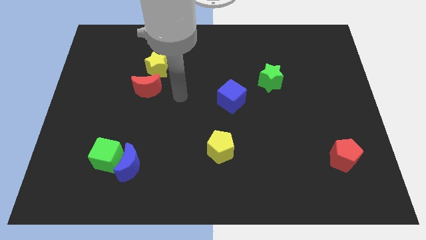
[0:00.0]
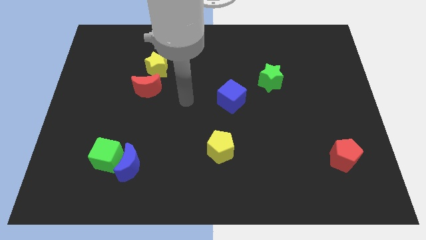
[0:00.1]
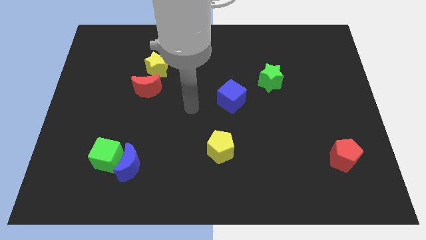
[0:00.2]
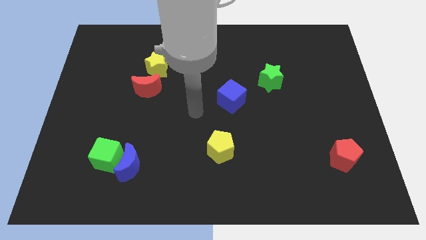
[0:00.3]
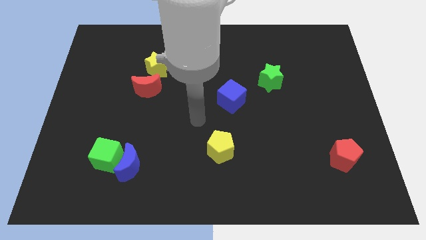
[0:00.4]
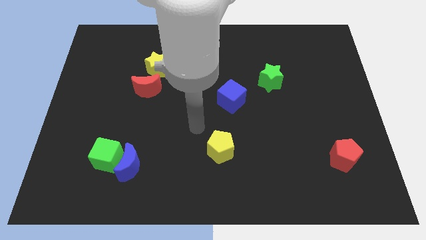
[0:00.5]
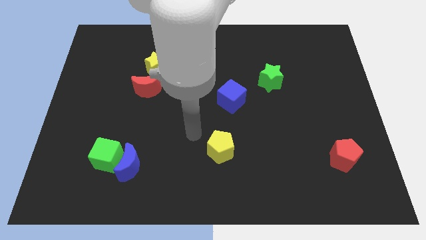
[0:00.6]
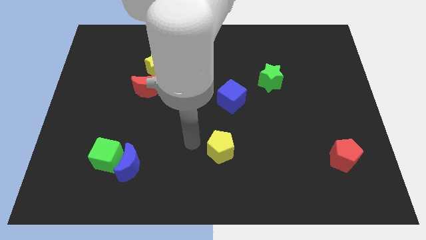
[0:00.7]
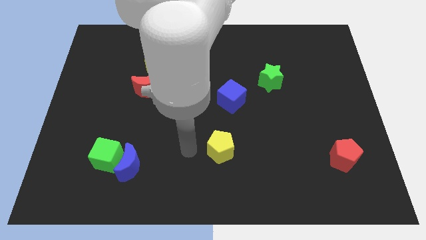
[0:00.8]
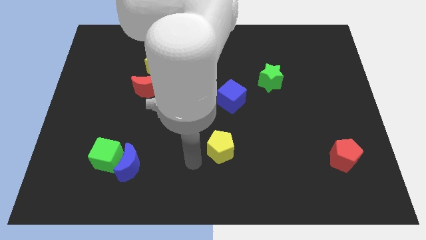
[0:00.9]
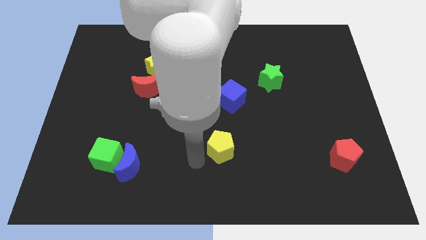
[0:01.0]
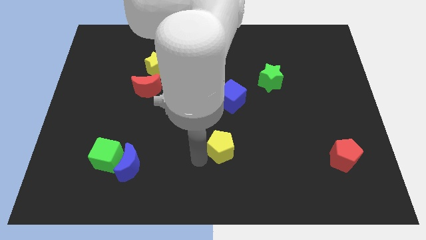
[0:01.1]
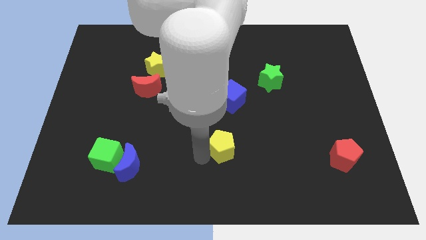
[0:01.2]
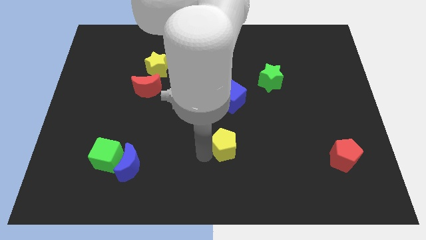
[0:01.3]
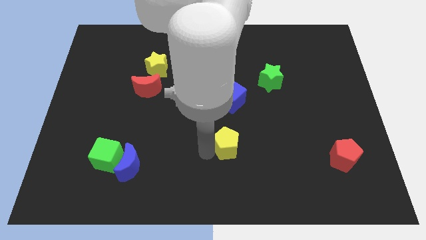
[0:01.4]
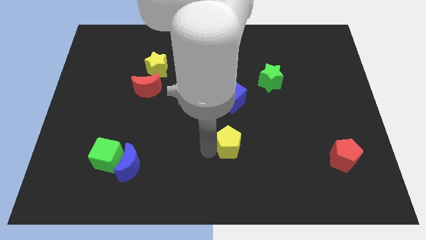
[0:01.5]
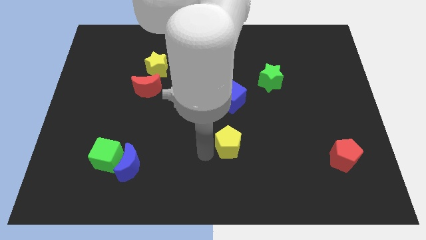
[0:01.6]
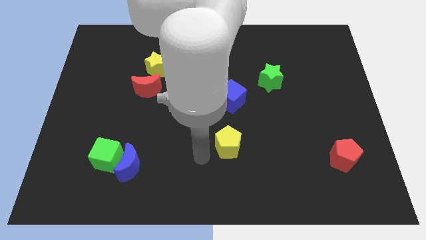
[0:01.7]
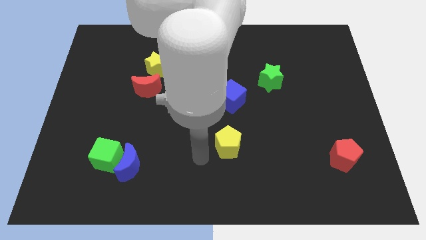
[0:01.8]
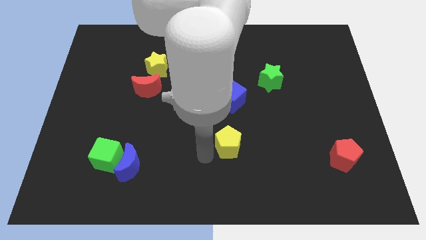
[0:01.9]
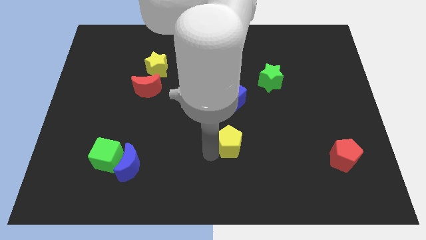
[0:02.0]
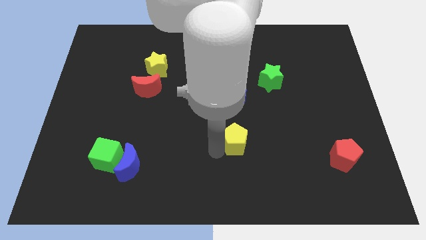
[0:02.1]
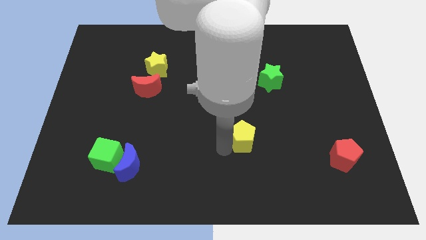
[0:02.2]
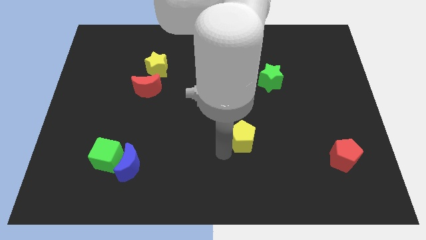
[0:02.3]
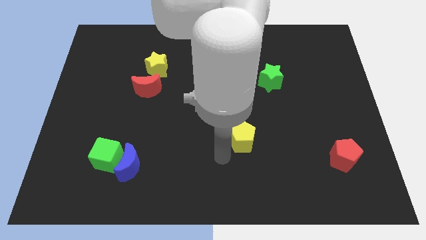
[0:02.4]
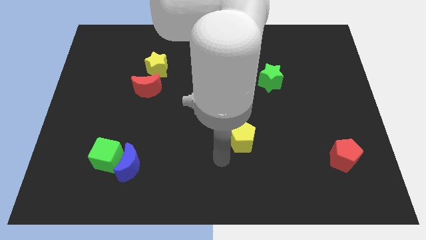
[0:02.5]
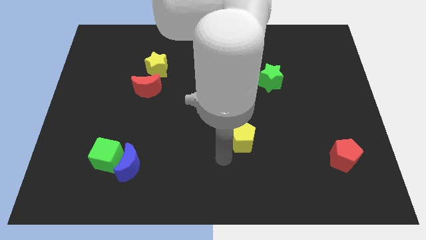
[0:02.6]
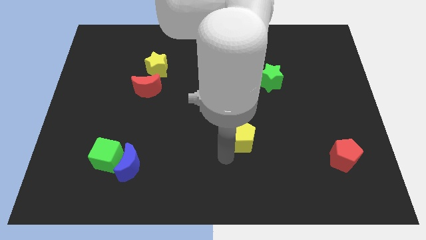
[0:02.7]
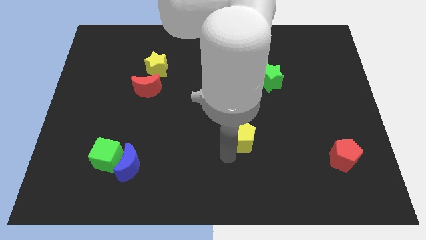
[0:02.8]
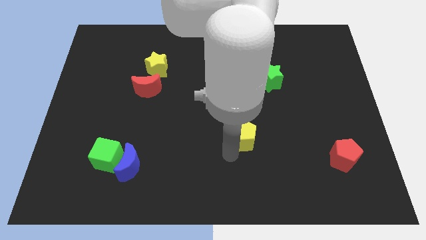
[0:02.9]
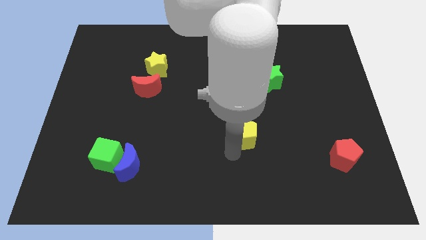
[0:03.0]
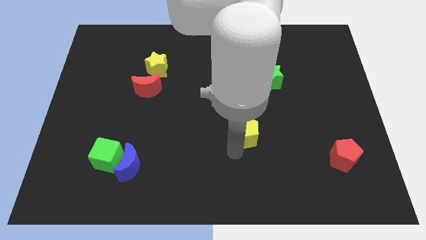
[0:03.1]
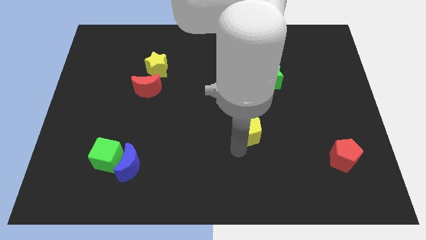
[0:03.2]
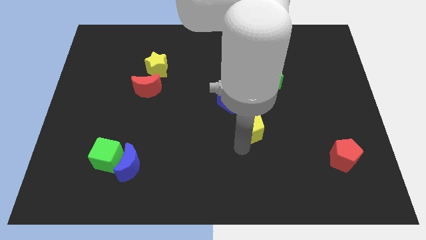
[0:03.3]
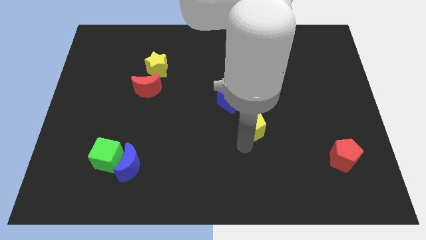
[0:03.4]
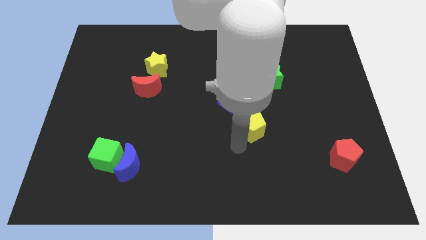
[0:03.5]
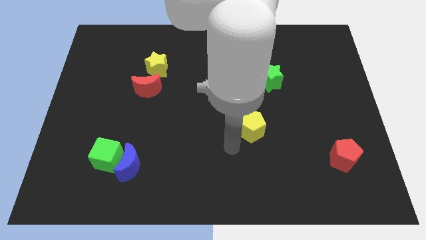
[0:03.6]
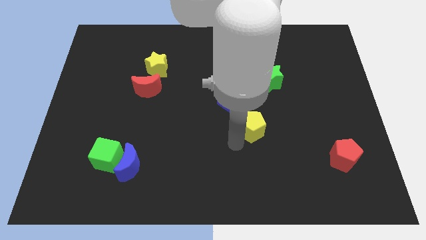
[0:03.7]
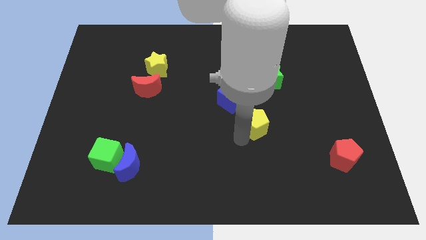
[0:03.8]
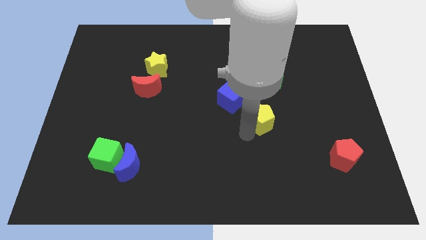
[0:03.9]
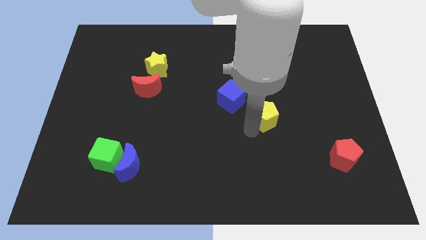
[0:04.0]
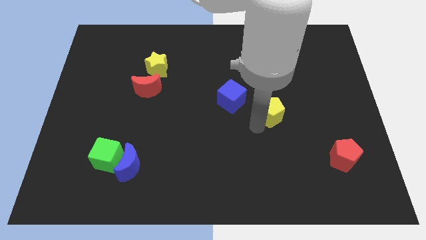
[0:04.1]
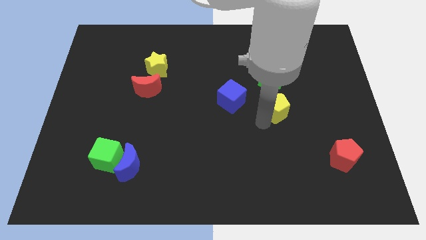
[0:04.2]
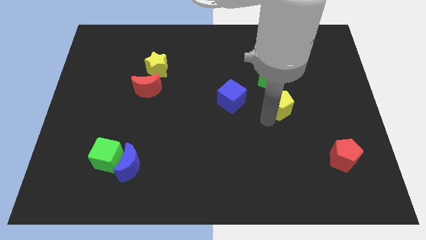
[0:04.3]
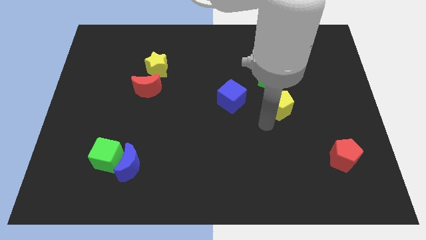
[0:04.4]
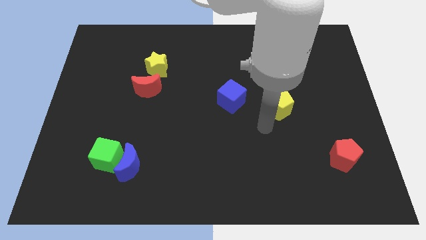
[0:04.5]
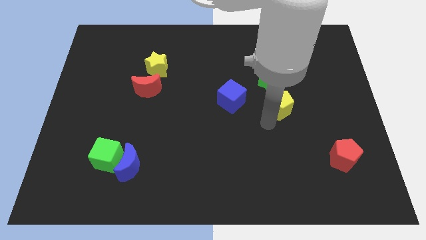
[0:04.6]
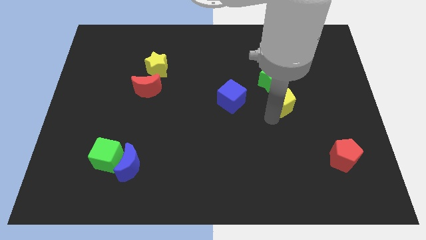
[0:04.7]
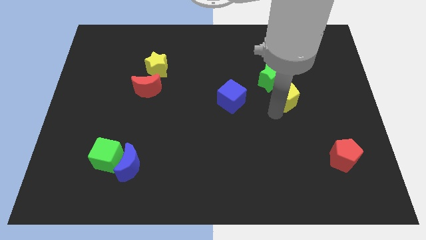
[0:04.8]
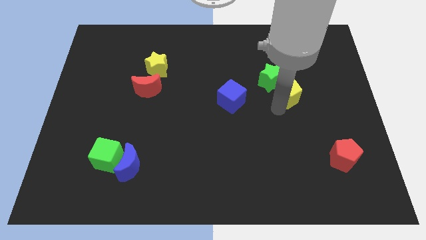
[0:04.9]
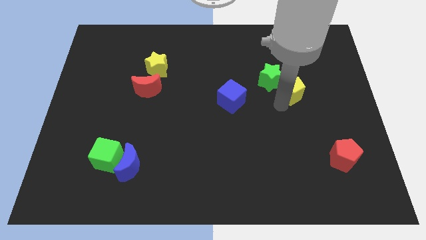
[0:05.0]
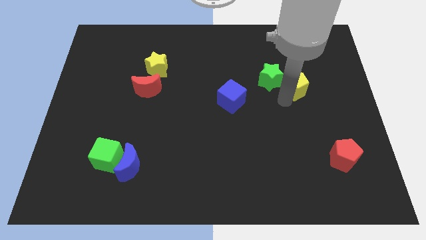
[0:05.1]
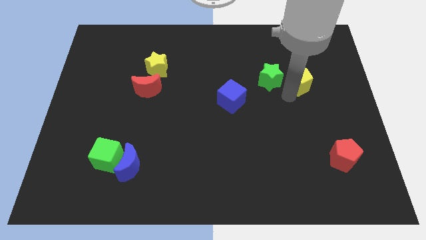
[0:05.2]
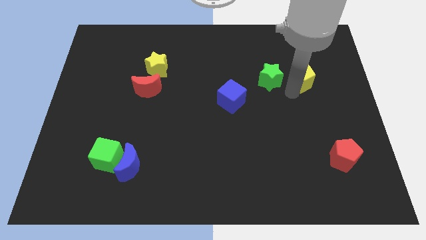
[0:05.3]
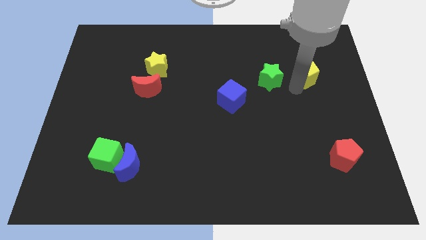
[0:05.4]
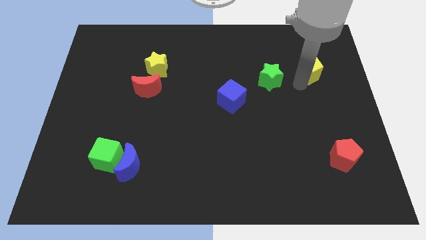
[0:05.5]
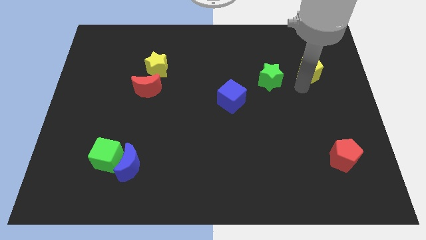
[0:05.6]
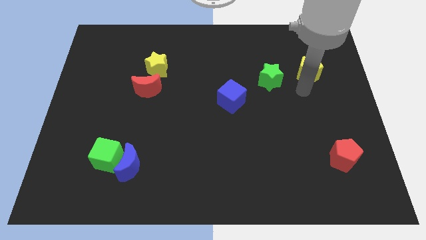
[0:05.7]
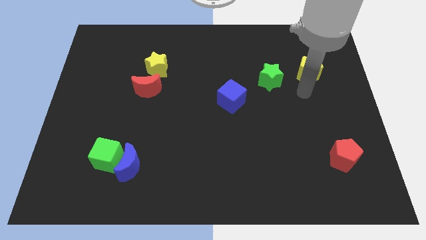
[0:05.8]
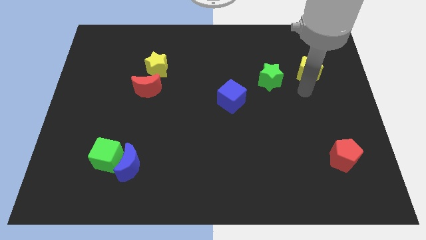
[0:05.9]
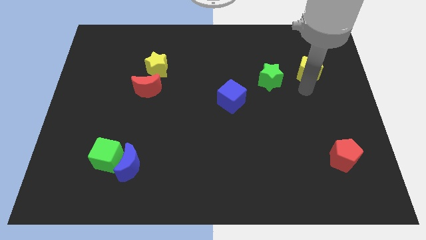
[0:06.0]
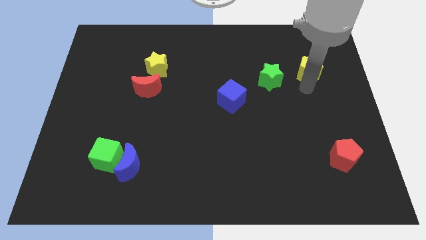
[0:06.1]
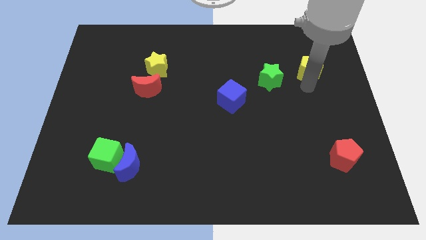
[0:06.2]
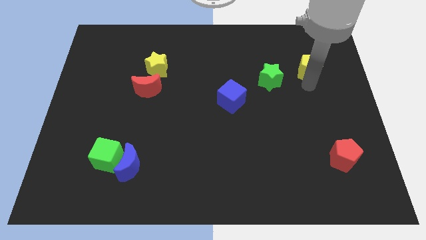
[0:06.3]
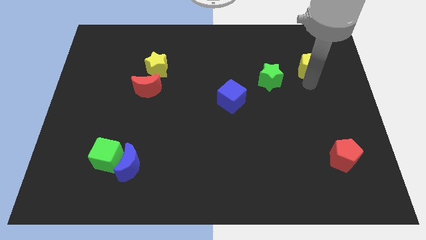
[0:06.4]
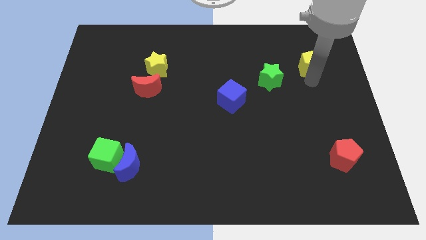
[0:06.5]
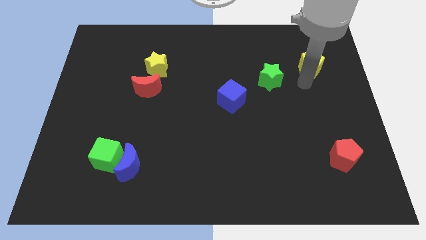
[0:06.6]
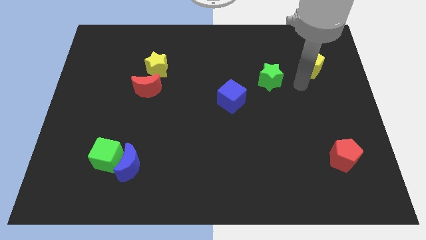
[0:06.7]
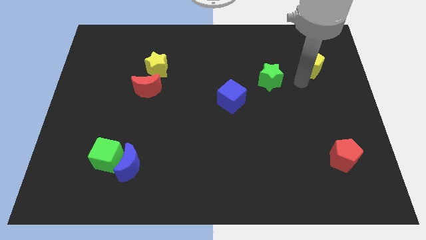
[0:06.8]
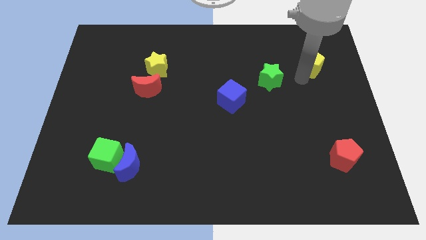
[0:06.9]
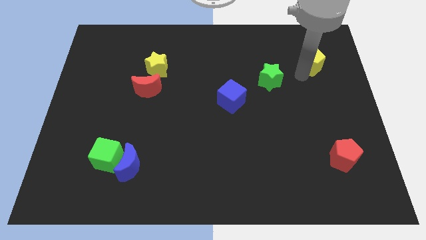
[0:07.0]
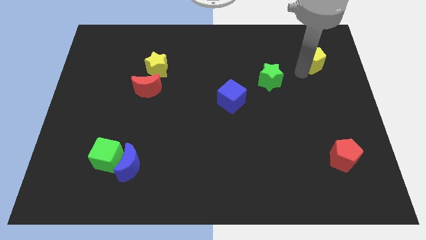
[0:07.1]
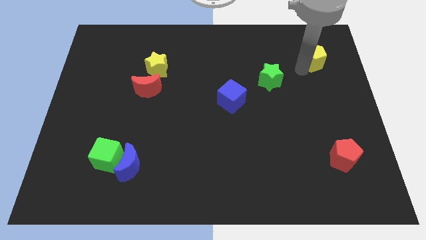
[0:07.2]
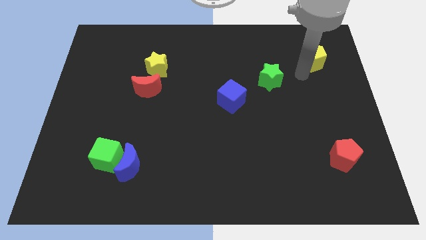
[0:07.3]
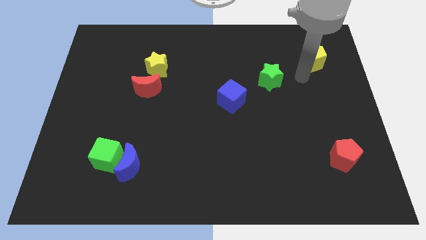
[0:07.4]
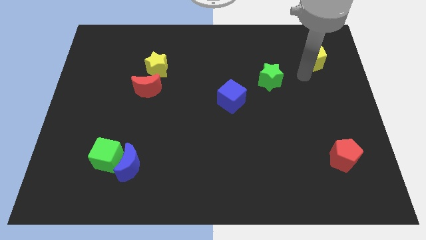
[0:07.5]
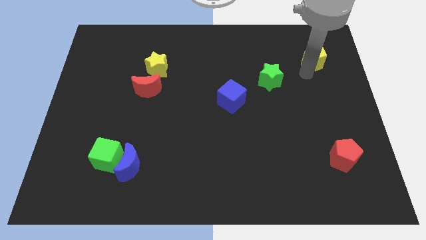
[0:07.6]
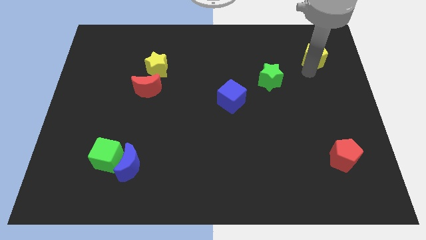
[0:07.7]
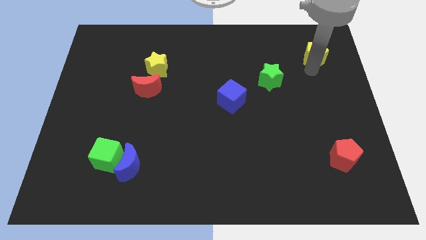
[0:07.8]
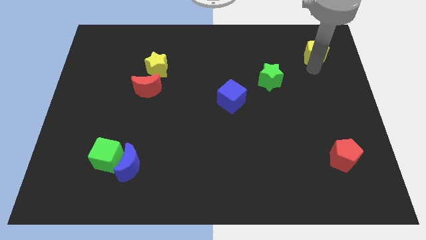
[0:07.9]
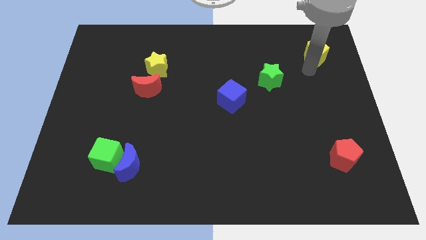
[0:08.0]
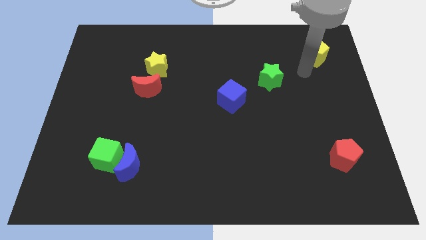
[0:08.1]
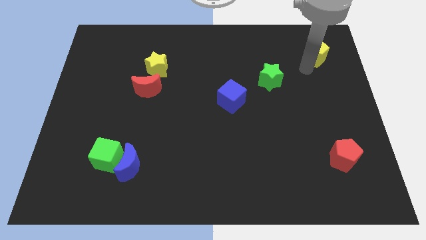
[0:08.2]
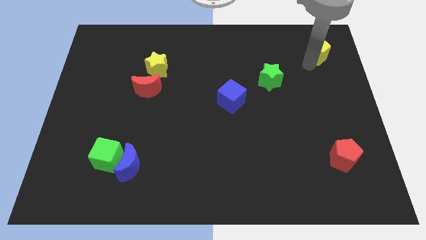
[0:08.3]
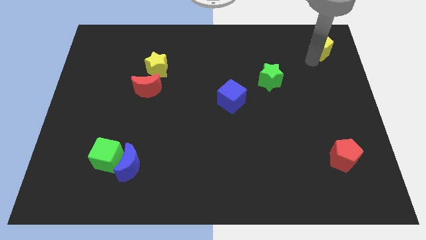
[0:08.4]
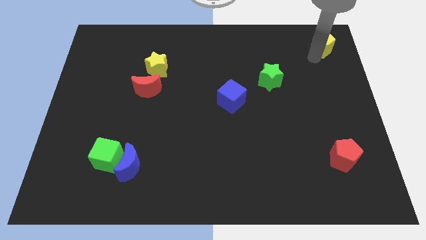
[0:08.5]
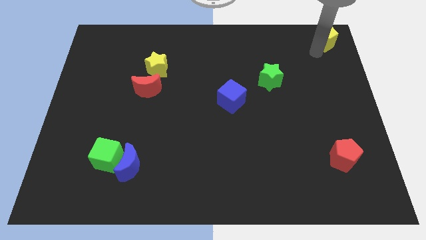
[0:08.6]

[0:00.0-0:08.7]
slide the yellow pentagon to the upper right corner
